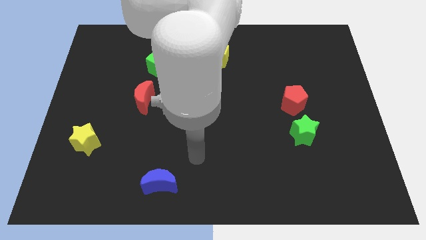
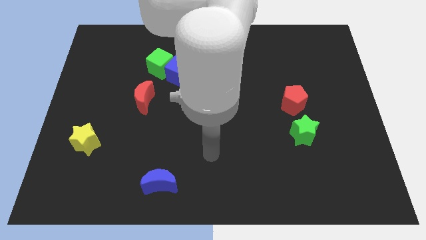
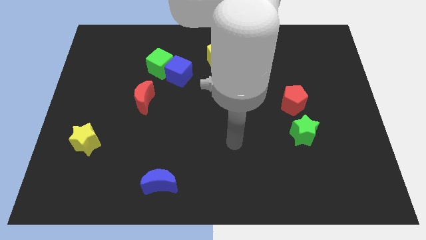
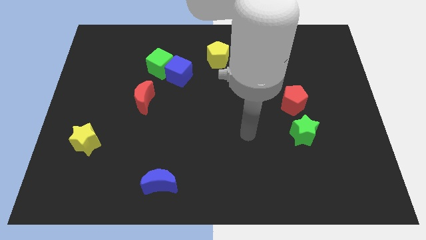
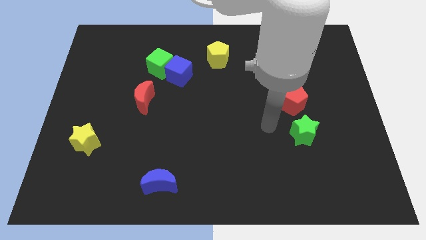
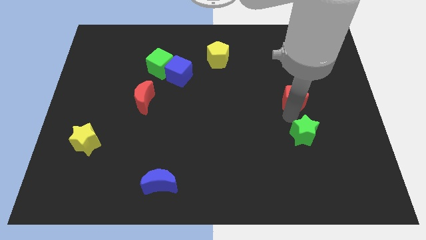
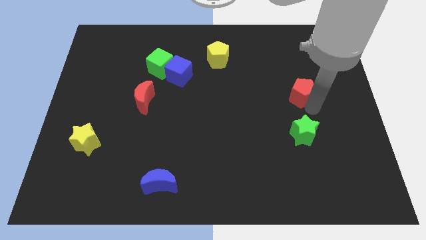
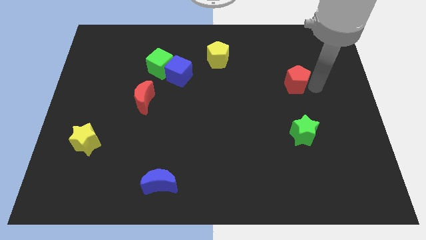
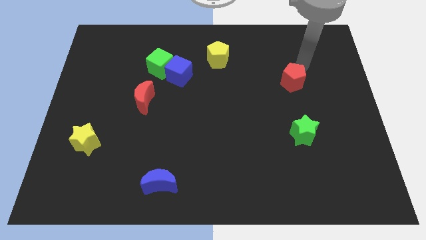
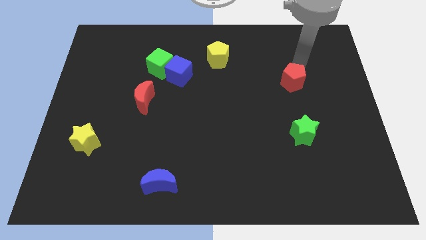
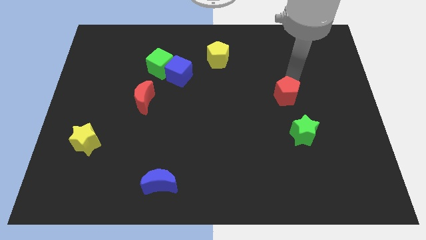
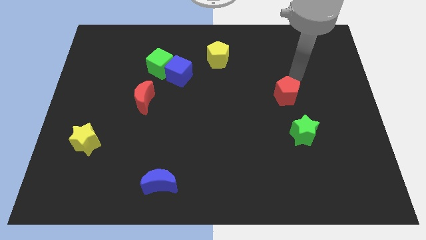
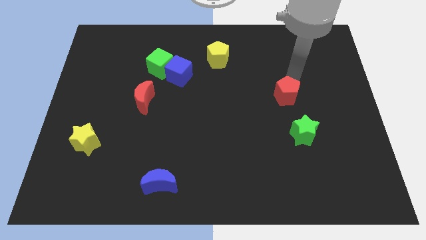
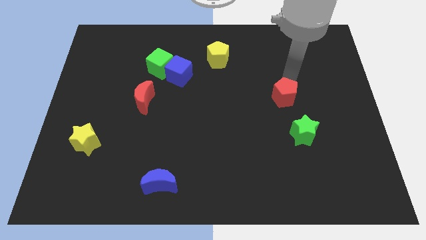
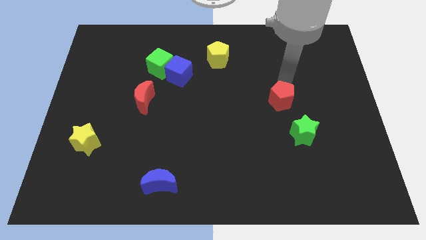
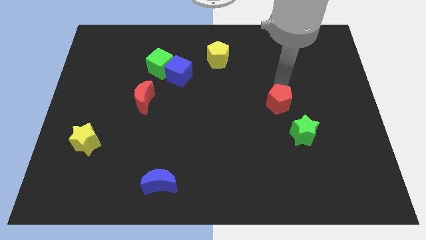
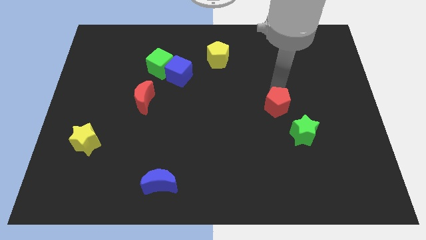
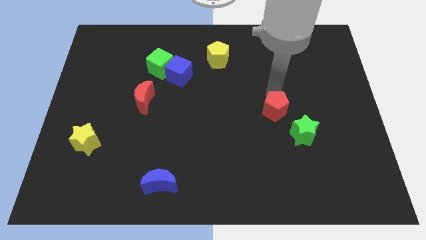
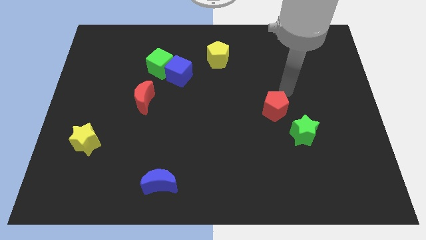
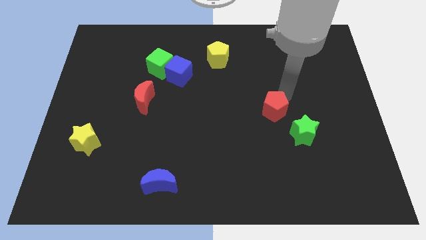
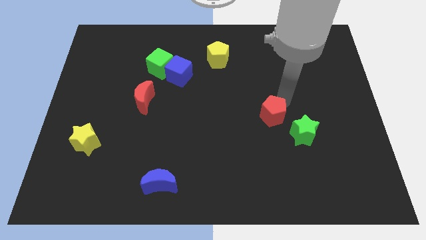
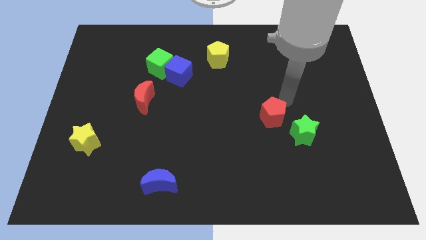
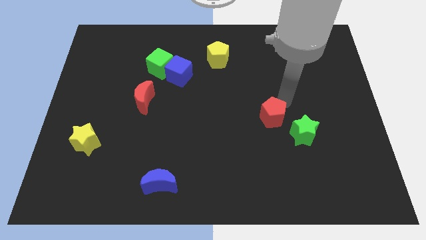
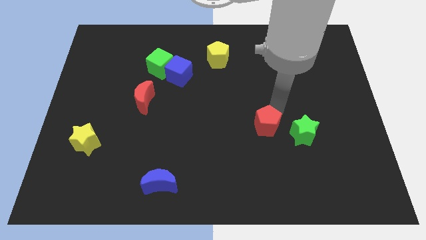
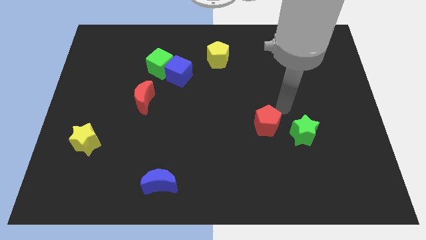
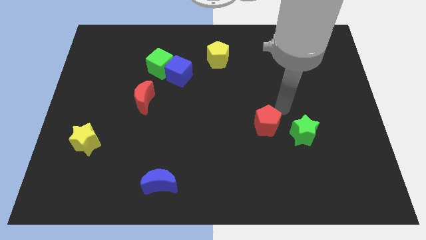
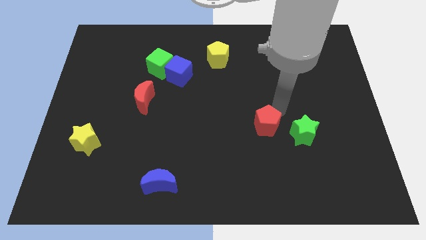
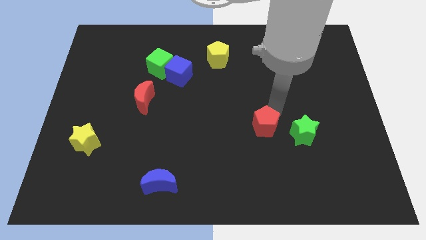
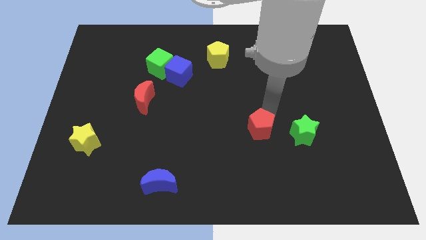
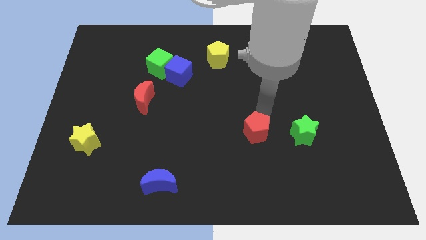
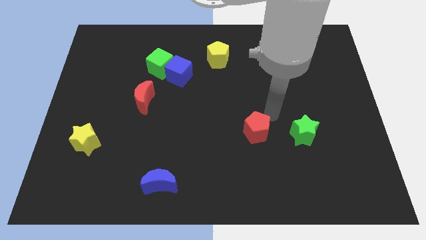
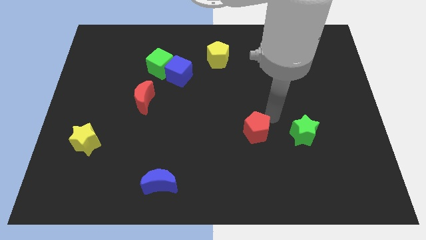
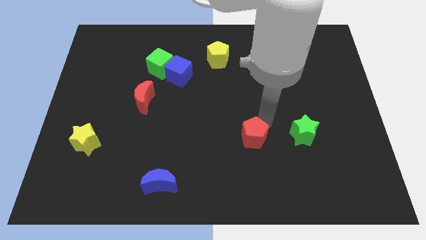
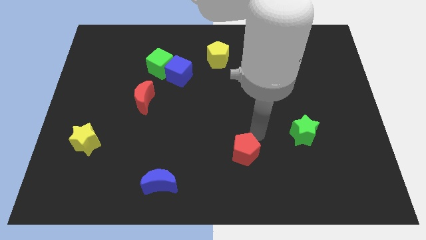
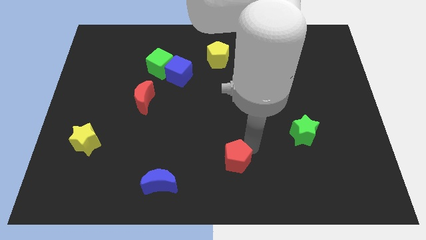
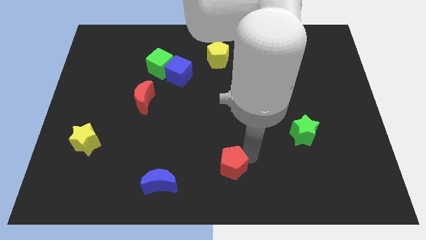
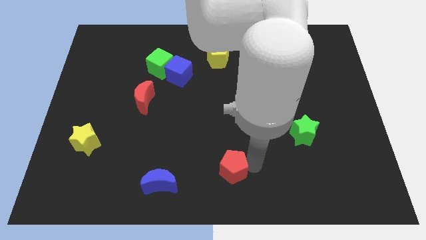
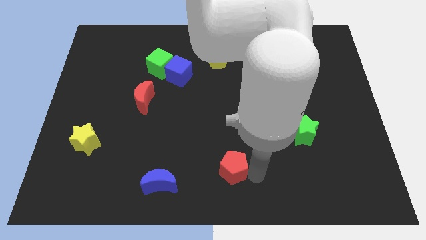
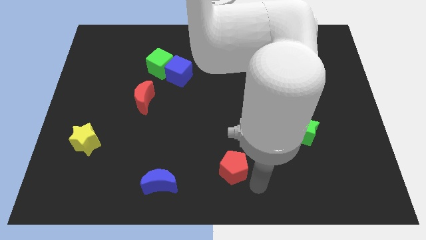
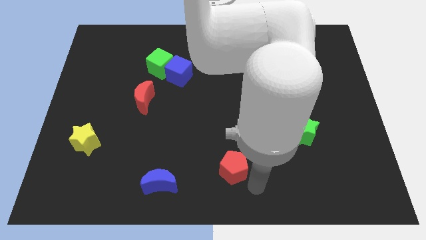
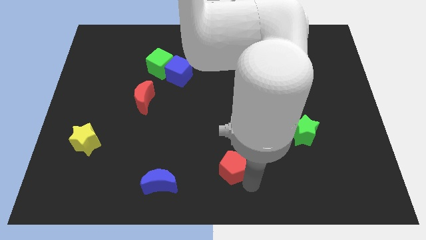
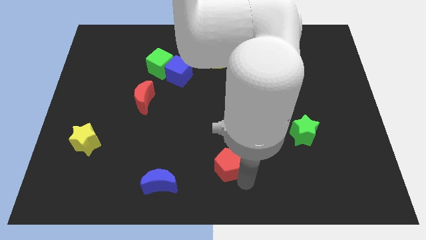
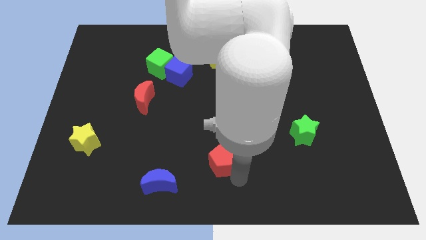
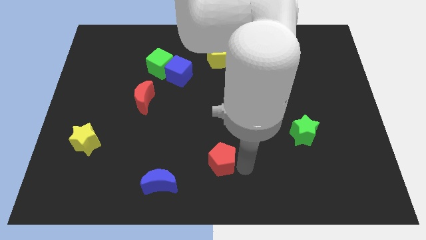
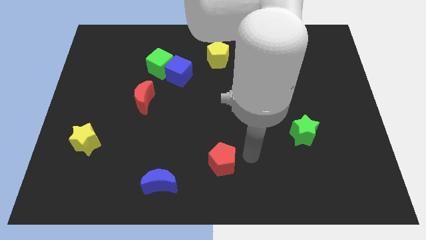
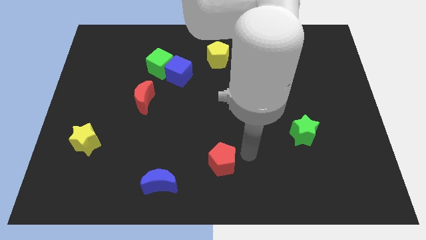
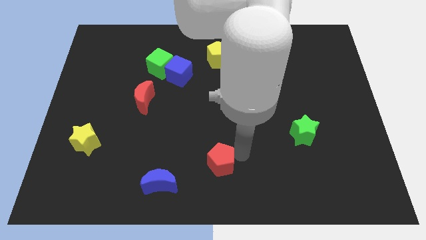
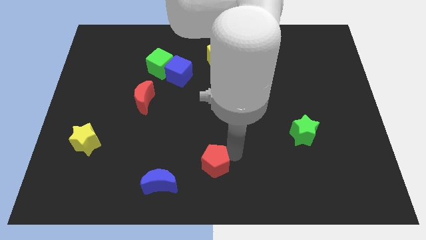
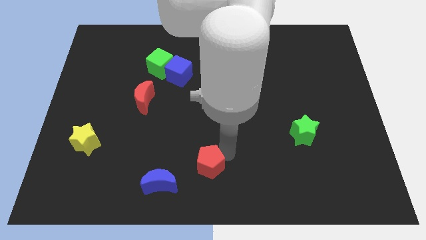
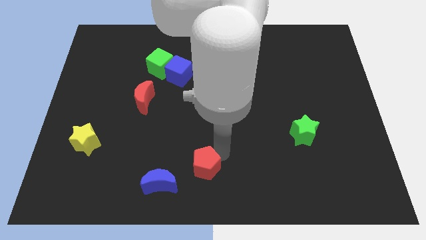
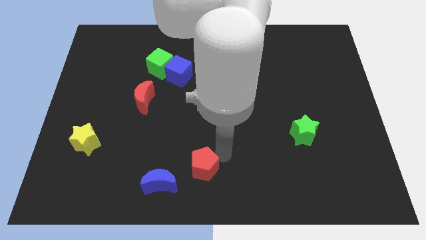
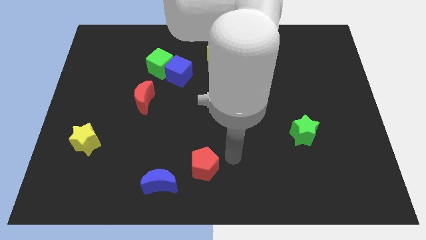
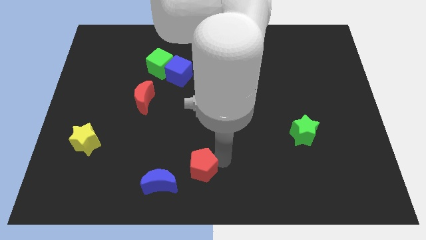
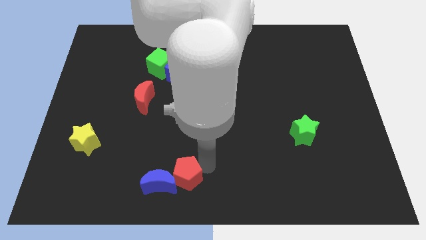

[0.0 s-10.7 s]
slide the red pentagon next to the blue moon

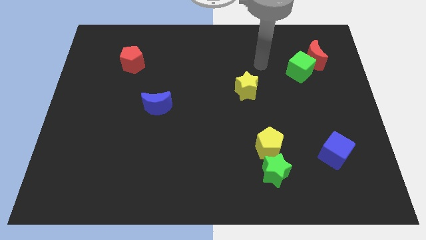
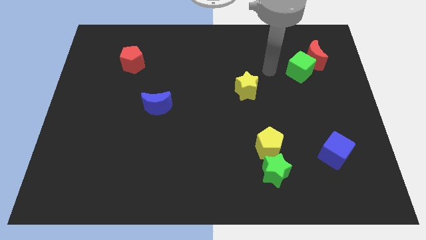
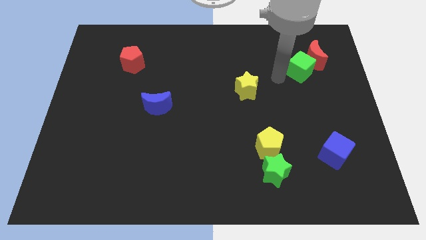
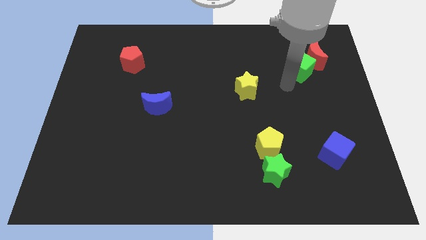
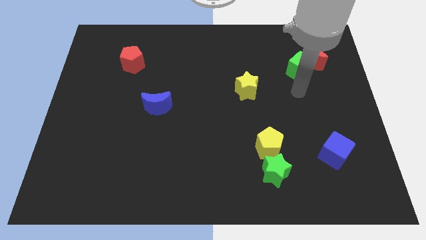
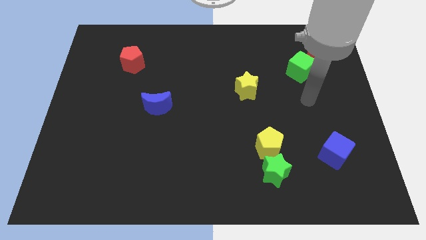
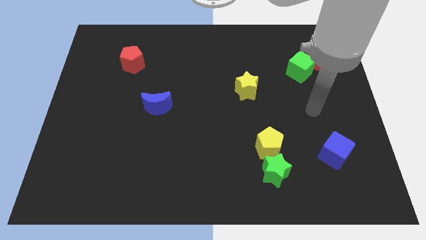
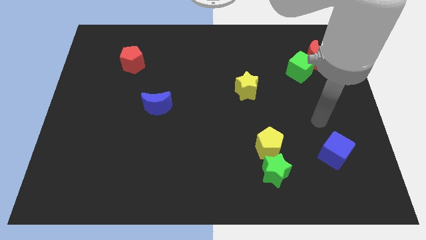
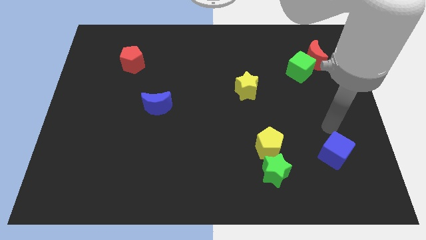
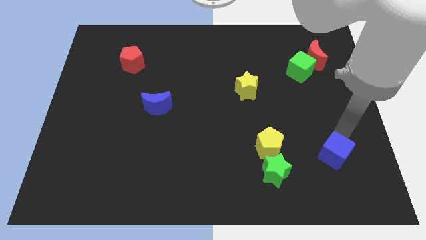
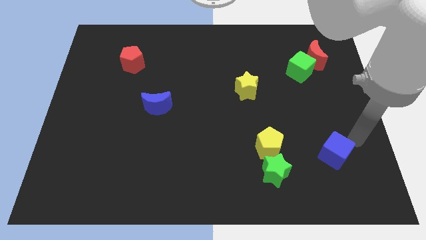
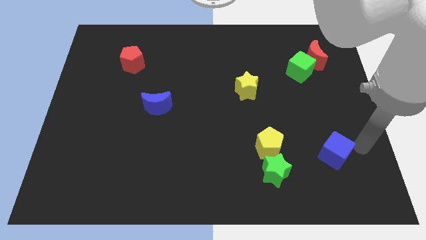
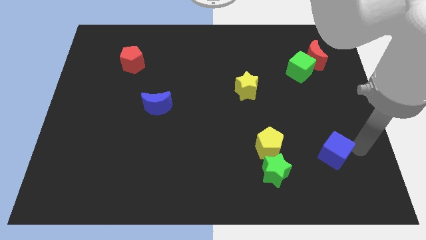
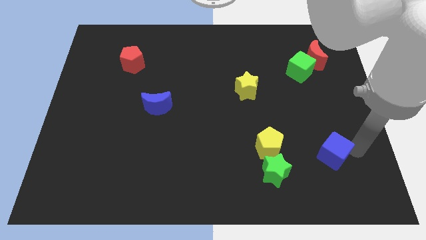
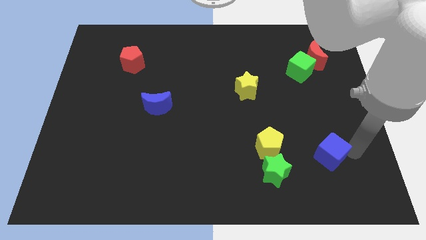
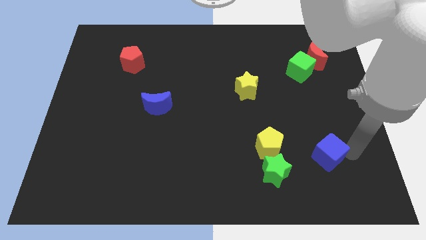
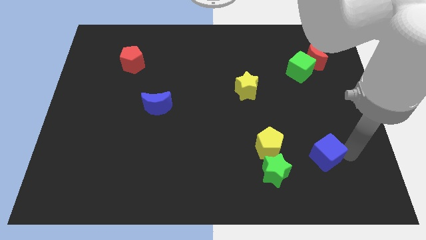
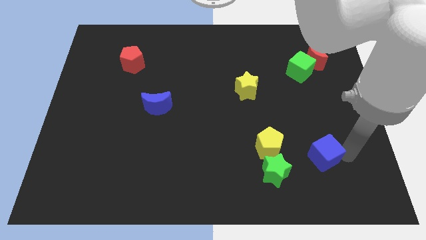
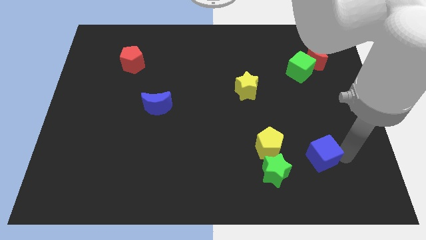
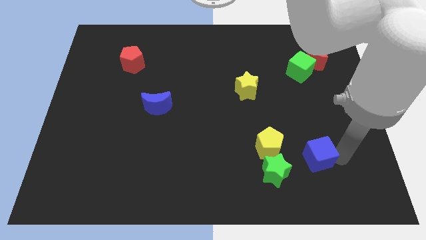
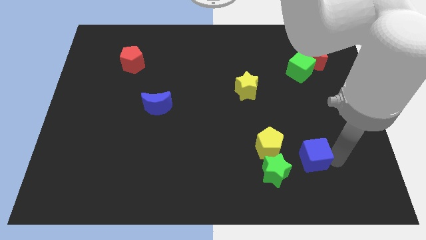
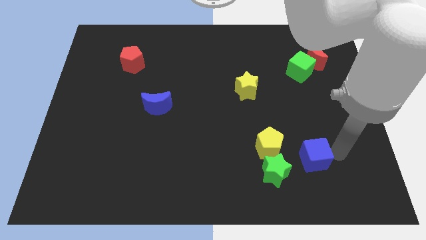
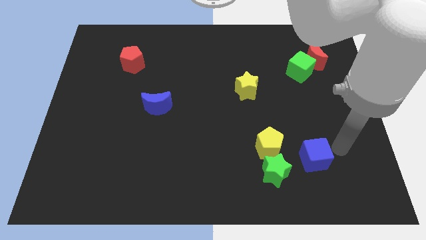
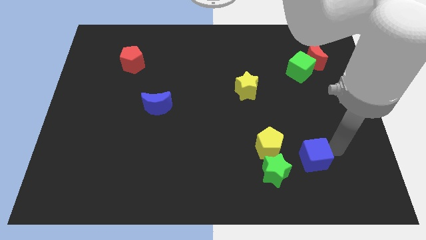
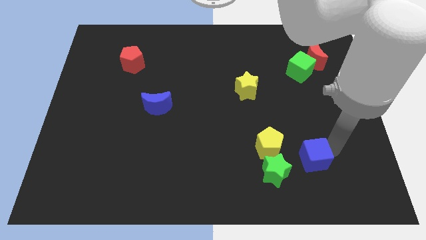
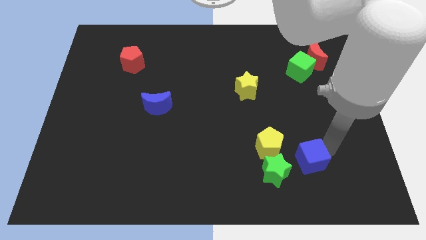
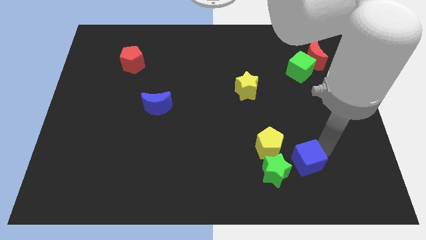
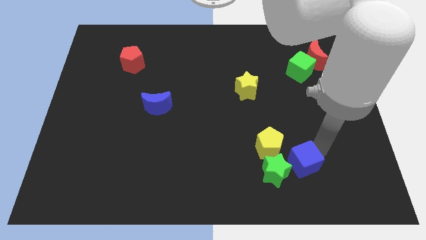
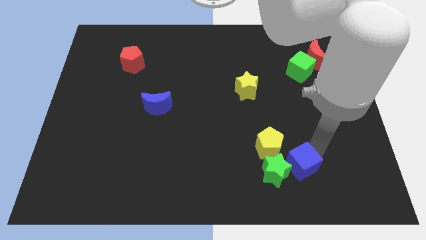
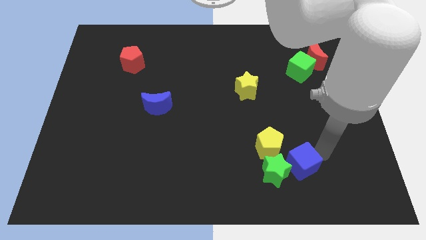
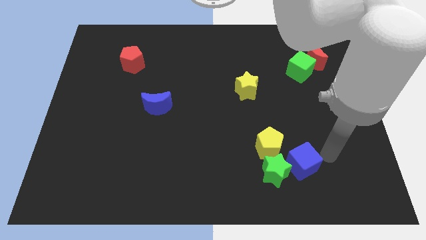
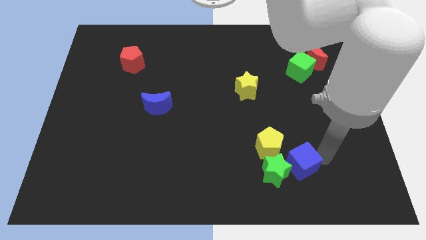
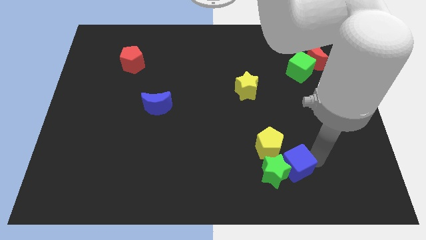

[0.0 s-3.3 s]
move the blue cube next to the green star
